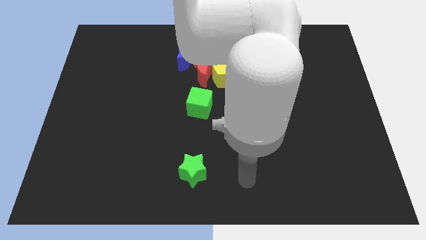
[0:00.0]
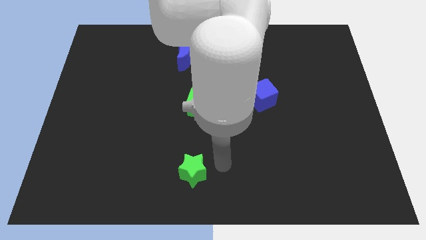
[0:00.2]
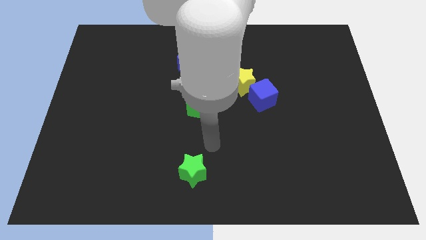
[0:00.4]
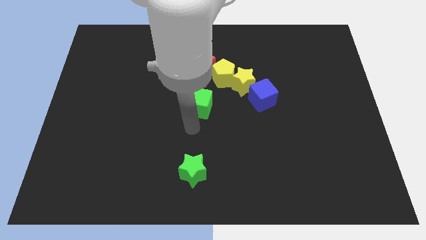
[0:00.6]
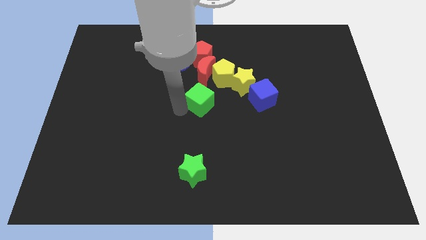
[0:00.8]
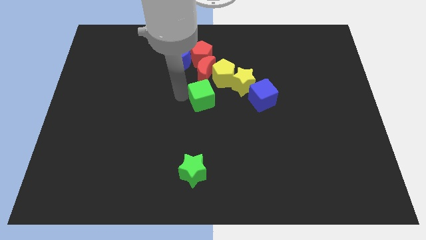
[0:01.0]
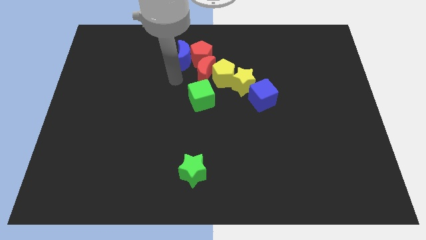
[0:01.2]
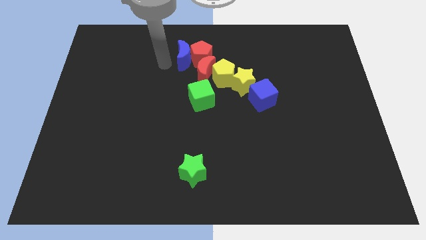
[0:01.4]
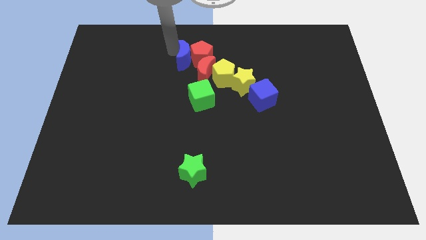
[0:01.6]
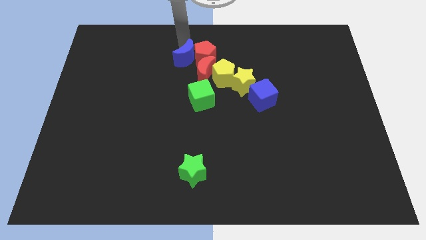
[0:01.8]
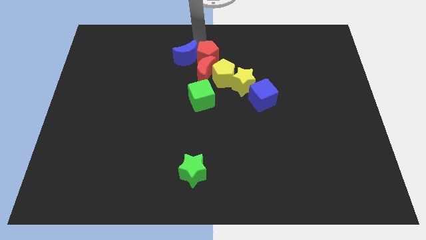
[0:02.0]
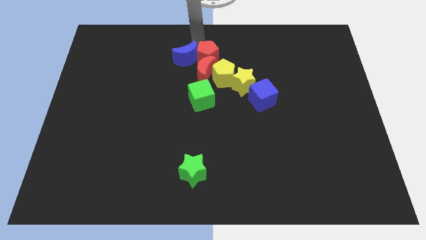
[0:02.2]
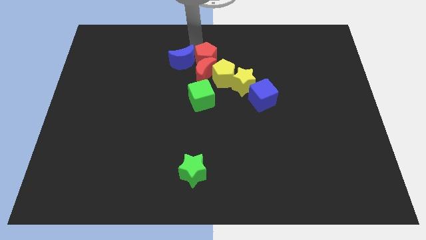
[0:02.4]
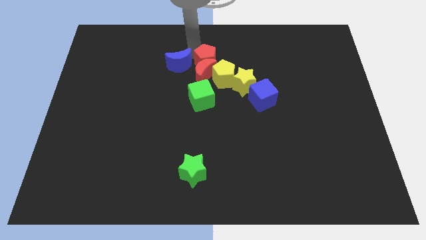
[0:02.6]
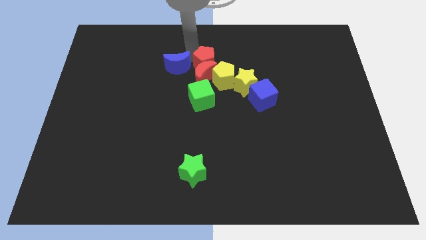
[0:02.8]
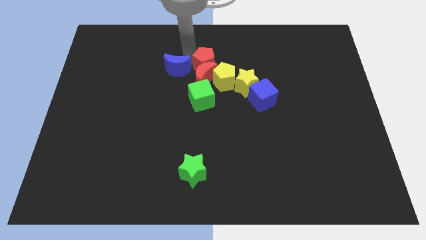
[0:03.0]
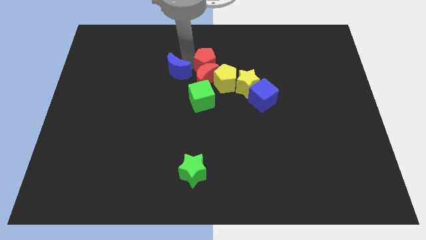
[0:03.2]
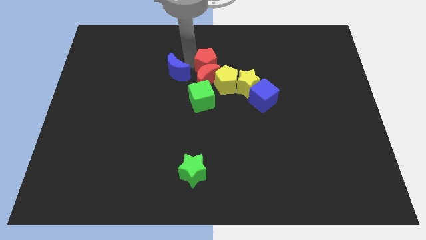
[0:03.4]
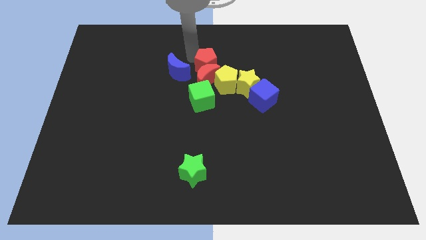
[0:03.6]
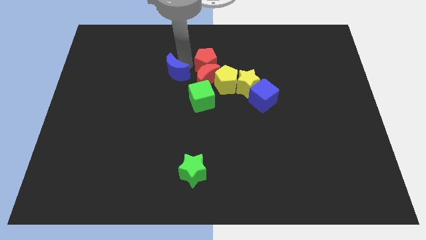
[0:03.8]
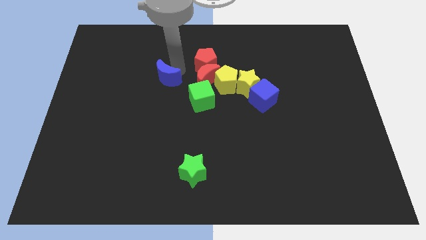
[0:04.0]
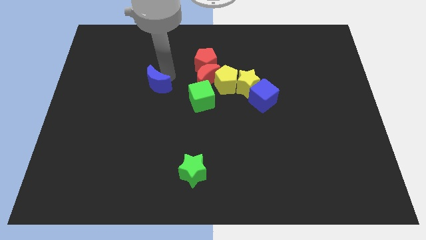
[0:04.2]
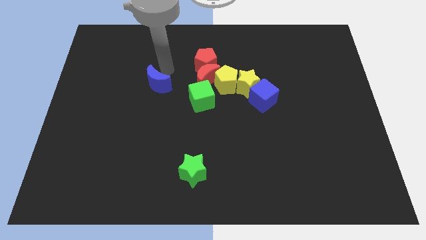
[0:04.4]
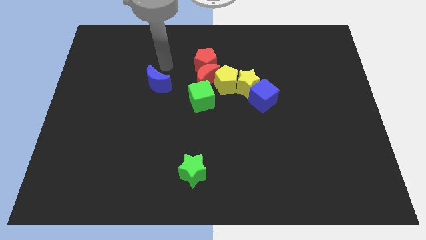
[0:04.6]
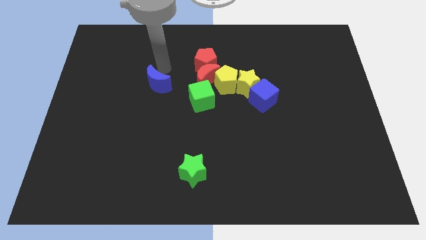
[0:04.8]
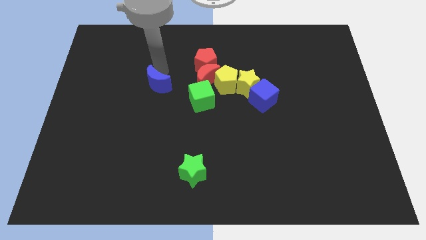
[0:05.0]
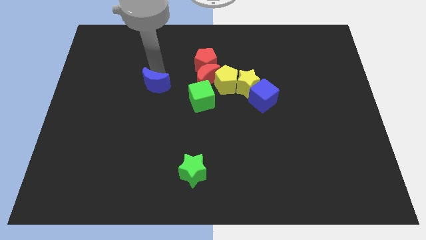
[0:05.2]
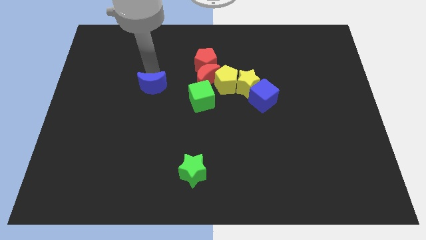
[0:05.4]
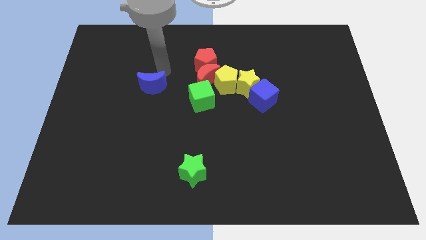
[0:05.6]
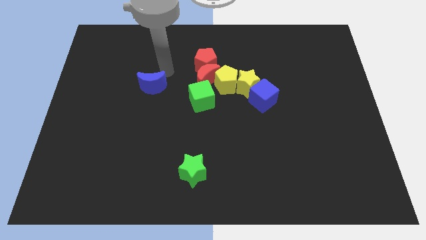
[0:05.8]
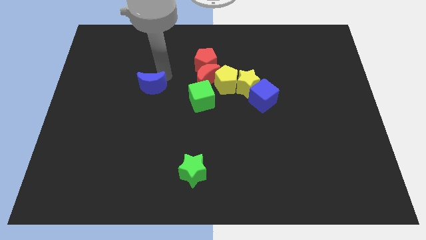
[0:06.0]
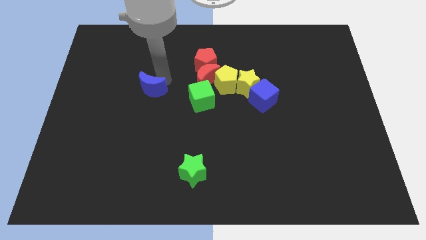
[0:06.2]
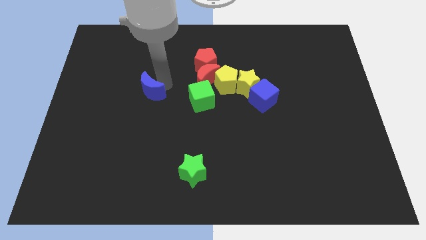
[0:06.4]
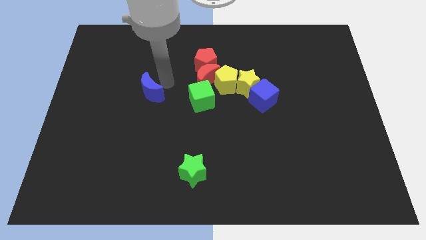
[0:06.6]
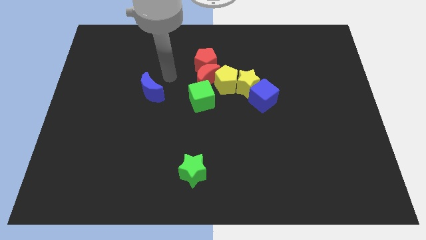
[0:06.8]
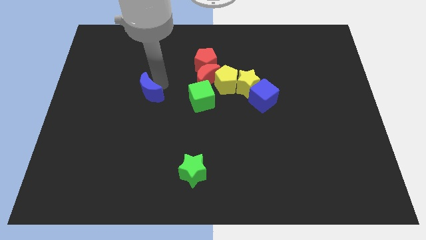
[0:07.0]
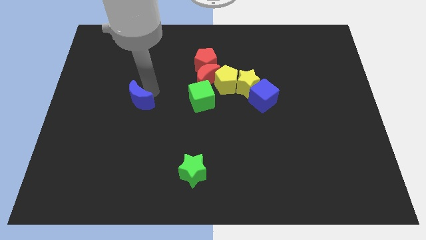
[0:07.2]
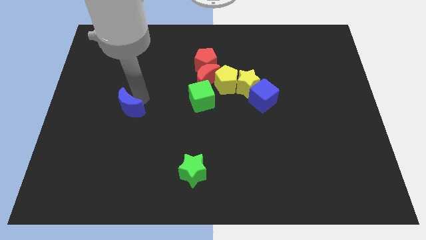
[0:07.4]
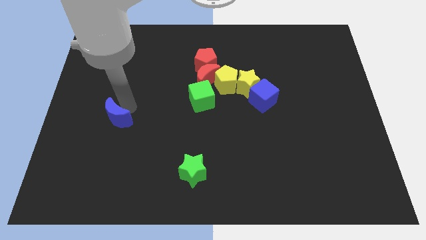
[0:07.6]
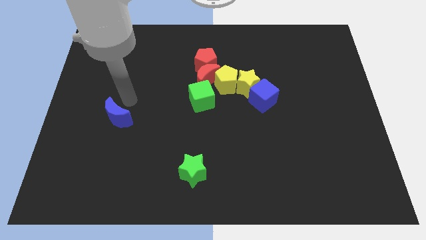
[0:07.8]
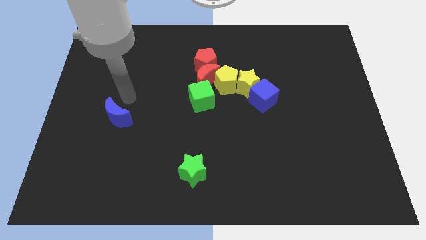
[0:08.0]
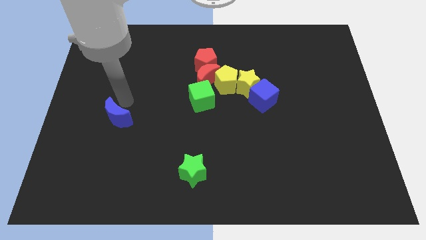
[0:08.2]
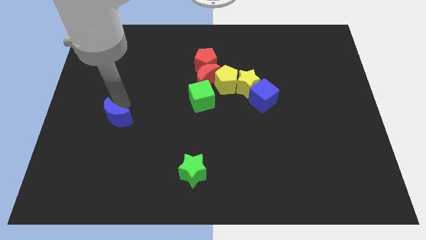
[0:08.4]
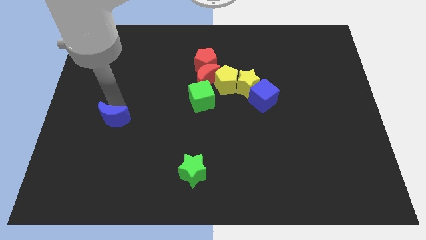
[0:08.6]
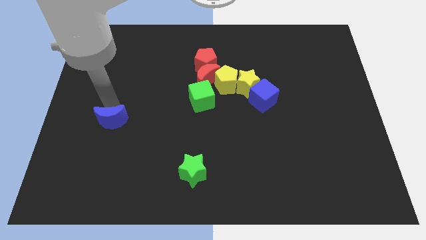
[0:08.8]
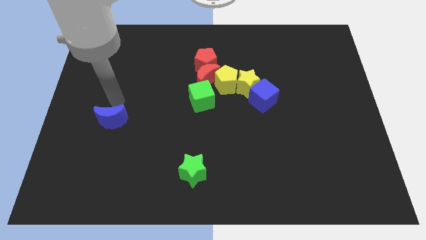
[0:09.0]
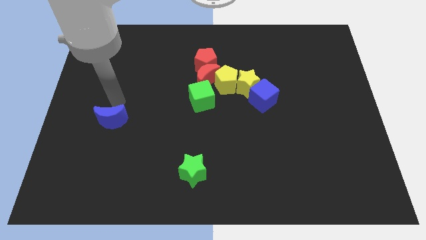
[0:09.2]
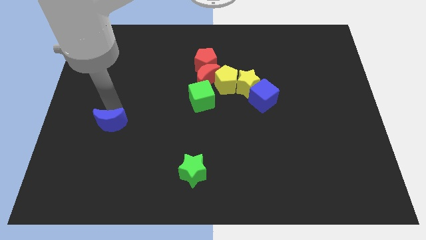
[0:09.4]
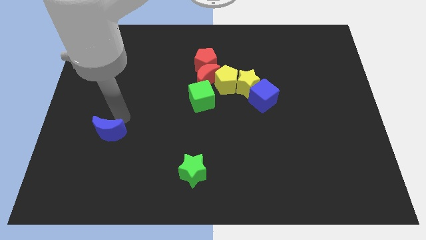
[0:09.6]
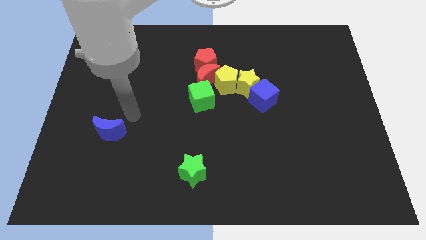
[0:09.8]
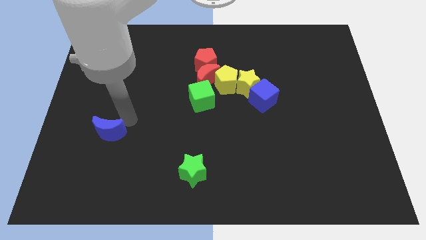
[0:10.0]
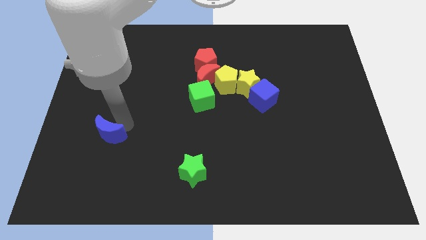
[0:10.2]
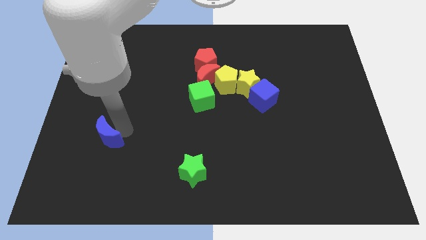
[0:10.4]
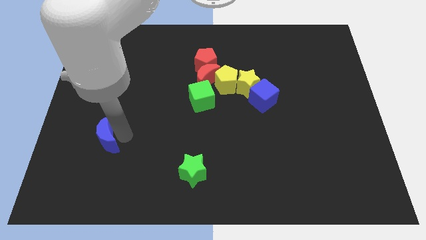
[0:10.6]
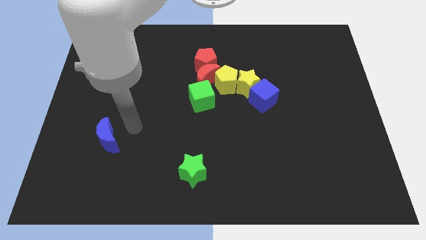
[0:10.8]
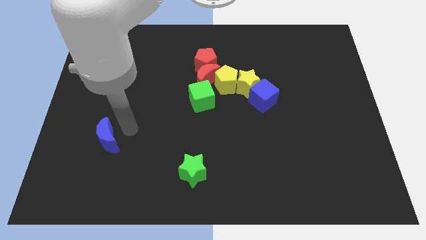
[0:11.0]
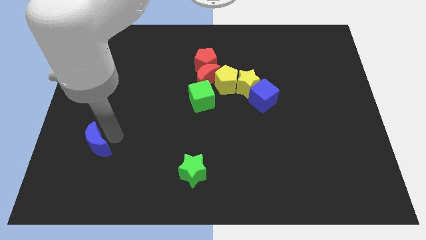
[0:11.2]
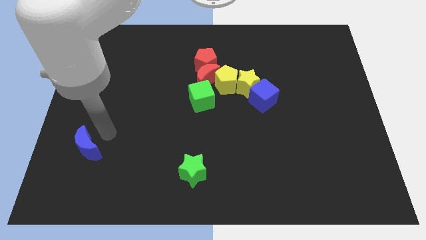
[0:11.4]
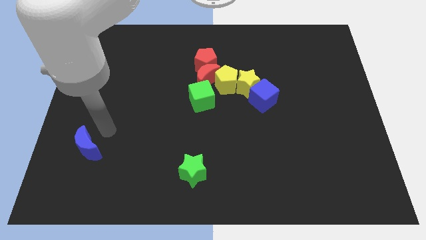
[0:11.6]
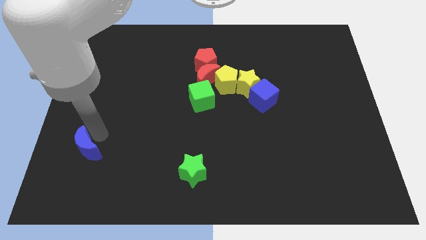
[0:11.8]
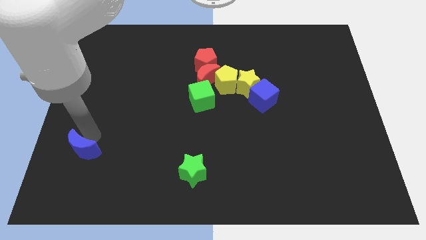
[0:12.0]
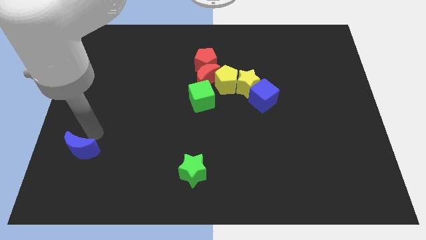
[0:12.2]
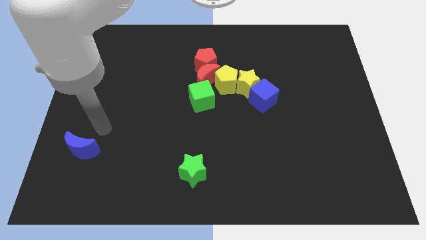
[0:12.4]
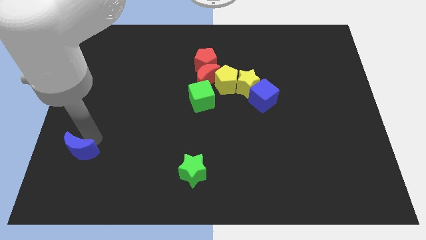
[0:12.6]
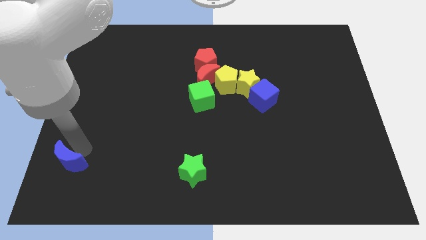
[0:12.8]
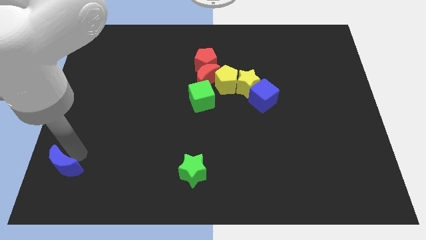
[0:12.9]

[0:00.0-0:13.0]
push the blue moon to the lower left corner
